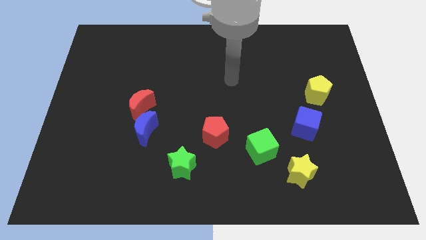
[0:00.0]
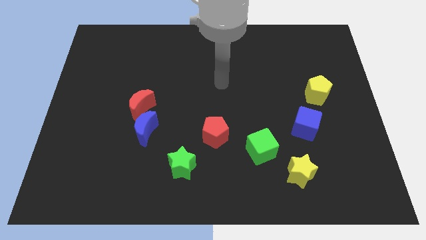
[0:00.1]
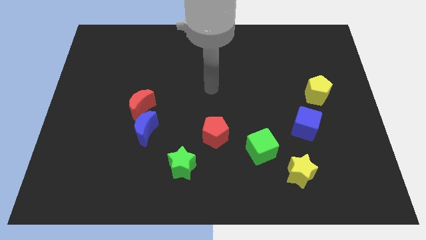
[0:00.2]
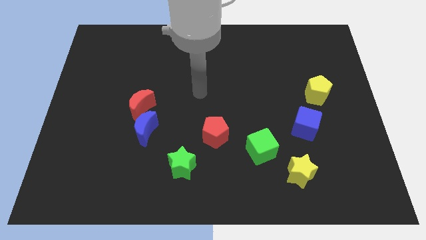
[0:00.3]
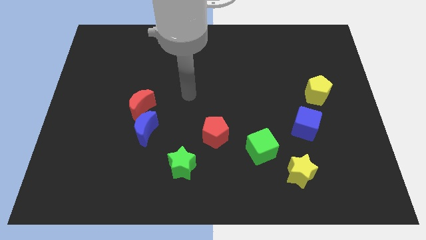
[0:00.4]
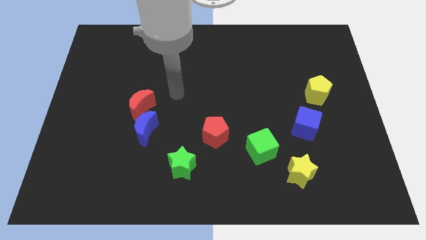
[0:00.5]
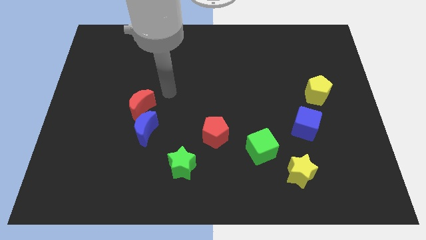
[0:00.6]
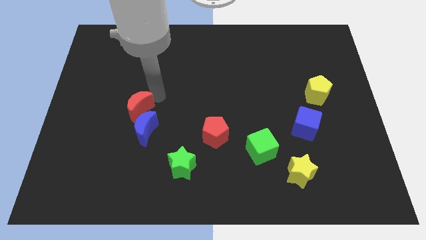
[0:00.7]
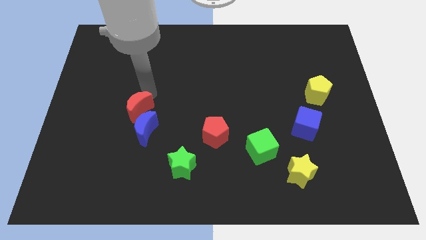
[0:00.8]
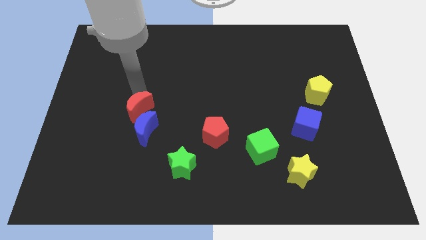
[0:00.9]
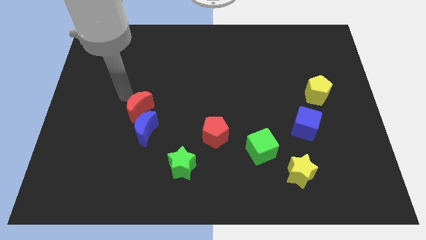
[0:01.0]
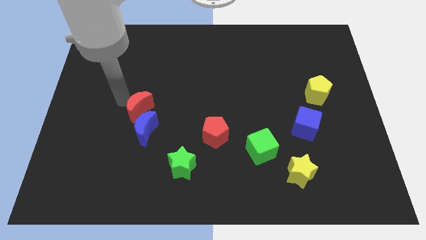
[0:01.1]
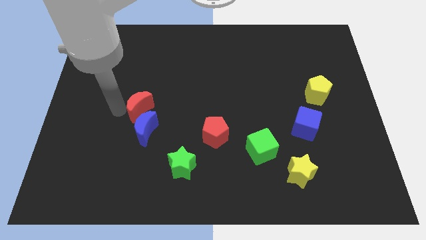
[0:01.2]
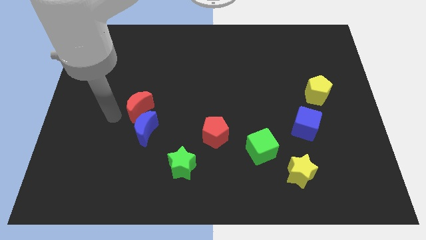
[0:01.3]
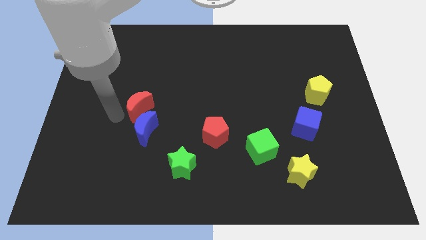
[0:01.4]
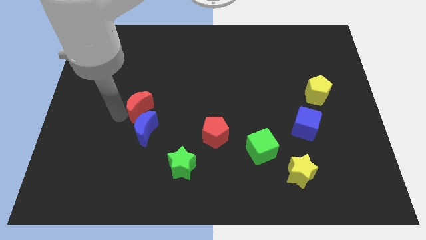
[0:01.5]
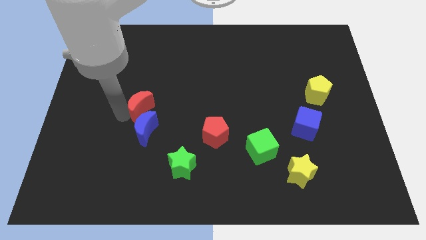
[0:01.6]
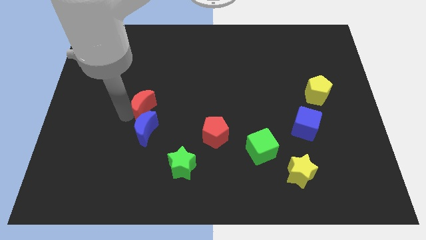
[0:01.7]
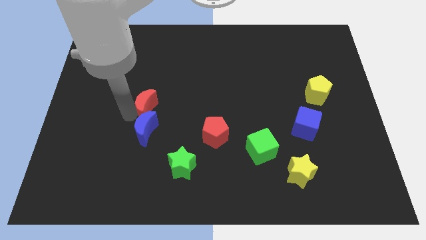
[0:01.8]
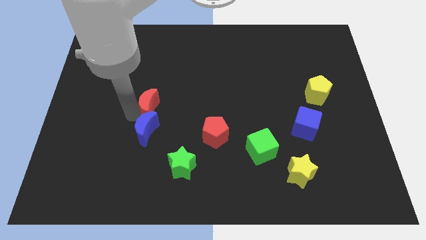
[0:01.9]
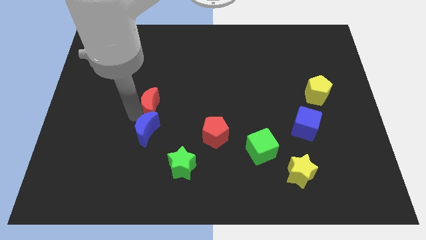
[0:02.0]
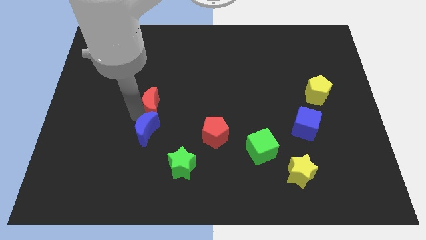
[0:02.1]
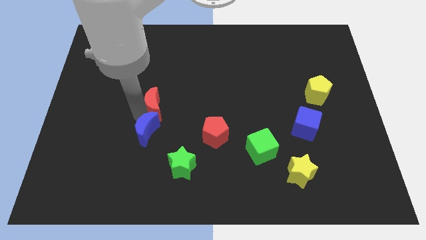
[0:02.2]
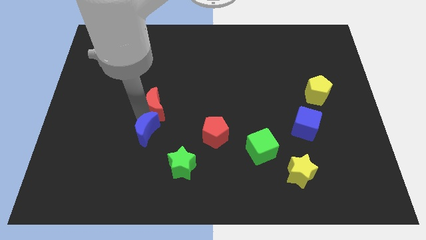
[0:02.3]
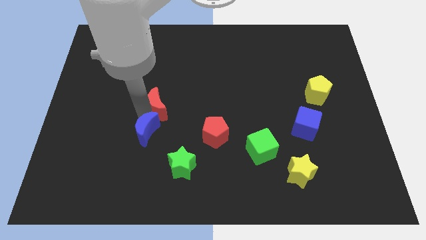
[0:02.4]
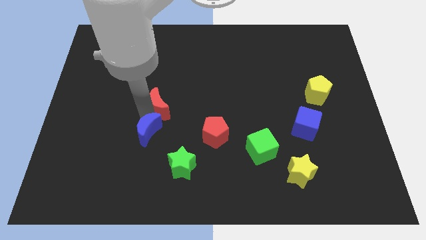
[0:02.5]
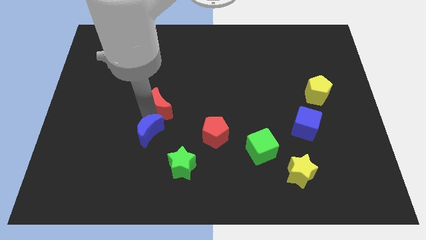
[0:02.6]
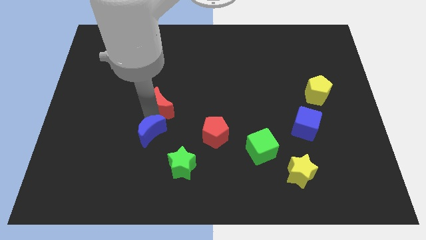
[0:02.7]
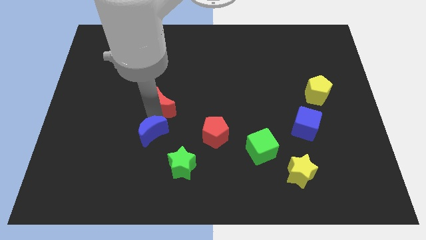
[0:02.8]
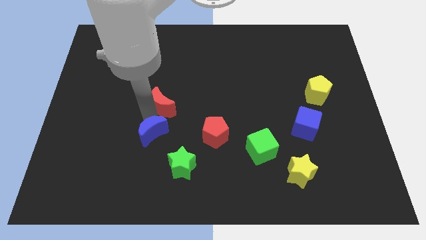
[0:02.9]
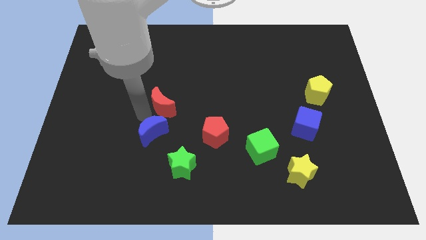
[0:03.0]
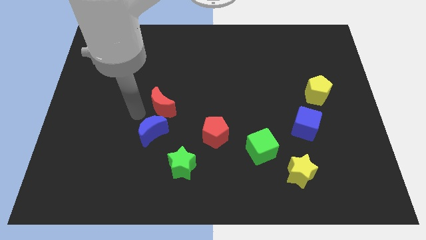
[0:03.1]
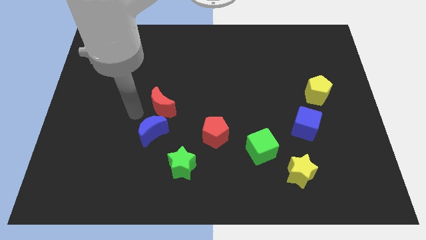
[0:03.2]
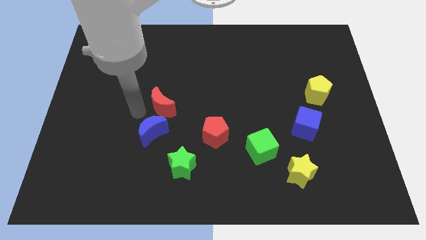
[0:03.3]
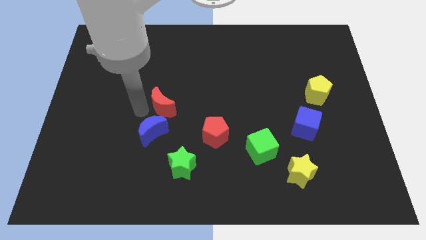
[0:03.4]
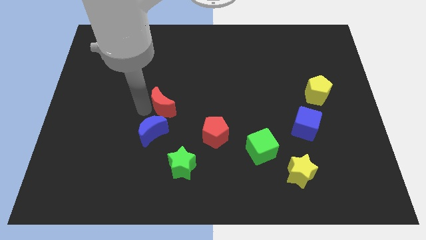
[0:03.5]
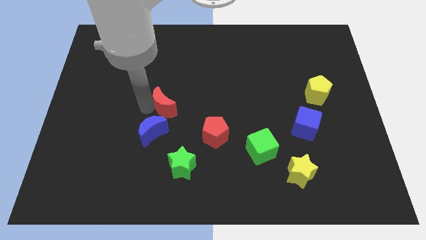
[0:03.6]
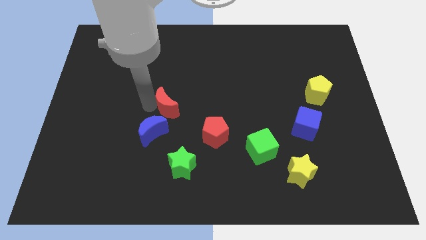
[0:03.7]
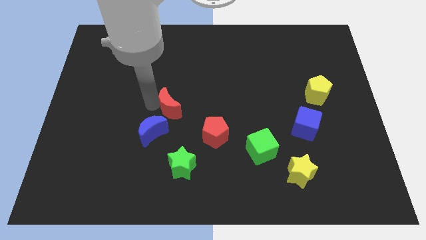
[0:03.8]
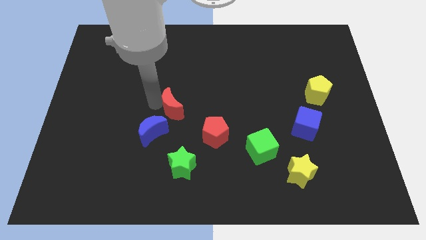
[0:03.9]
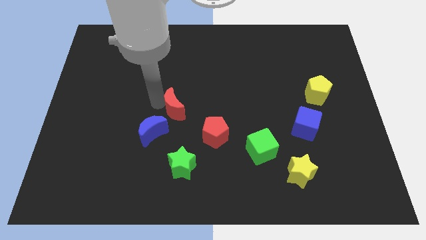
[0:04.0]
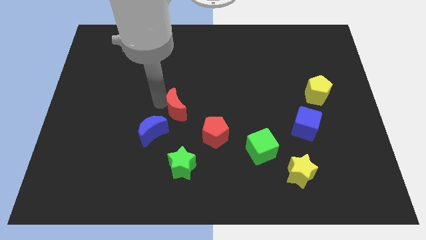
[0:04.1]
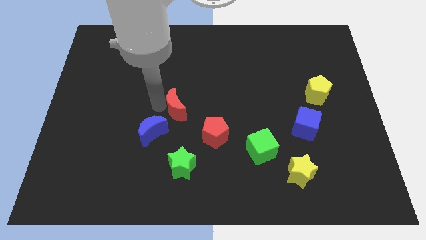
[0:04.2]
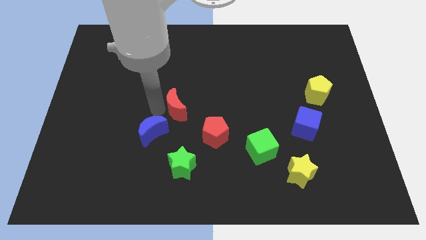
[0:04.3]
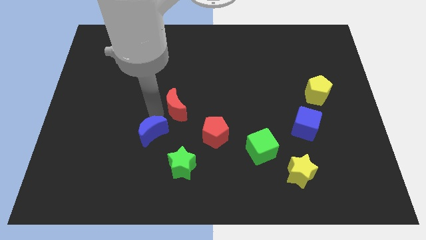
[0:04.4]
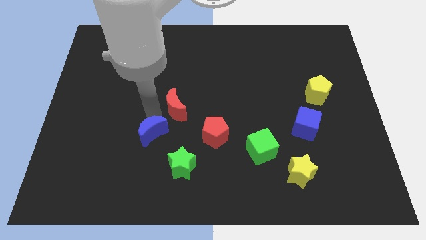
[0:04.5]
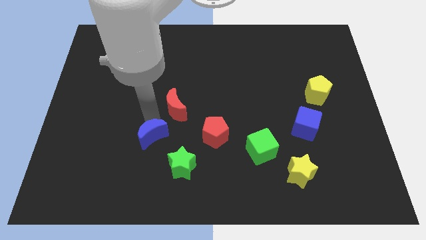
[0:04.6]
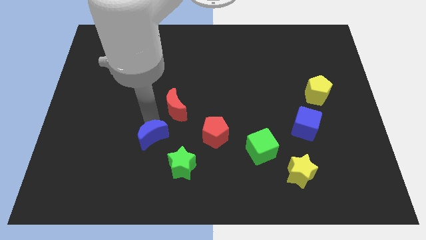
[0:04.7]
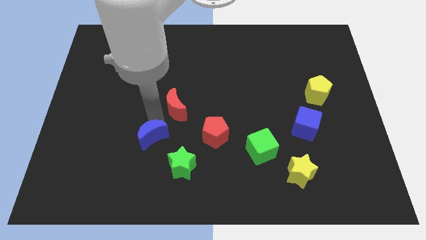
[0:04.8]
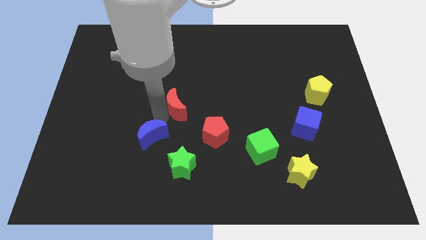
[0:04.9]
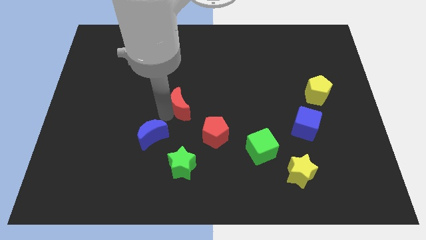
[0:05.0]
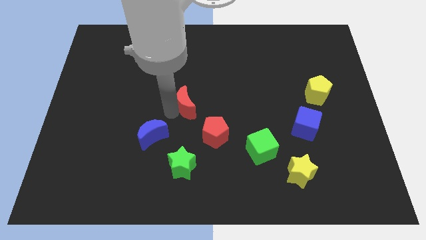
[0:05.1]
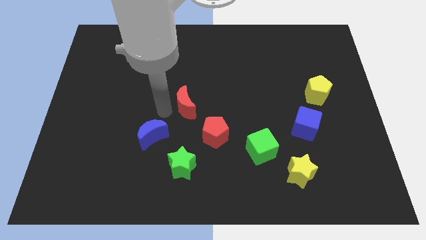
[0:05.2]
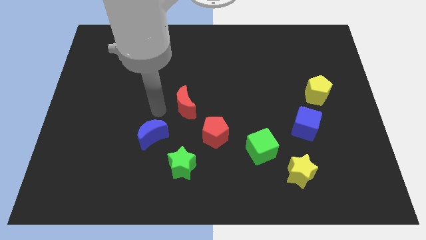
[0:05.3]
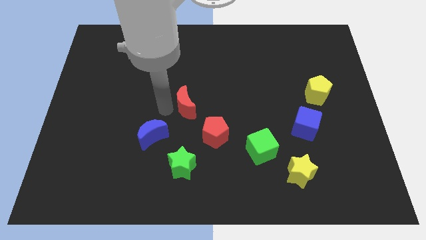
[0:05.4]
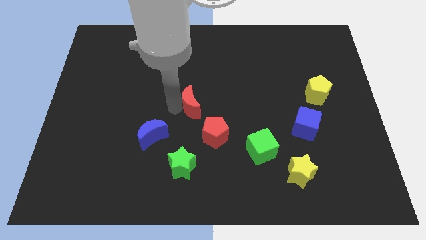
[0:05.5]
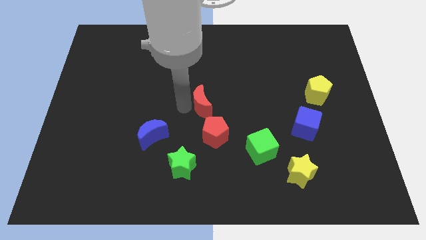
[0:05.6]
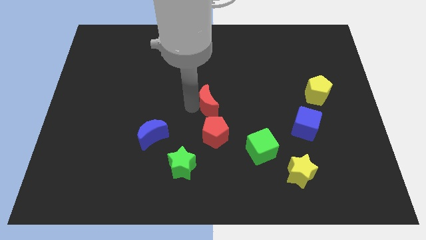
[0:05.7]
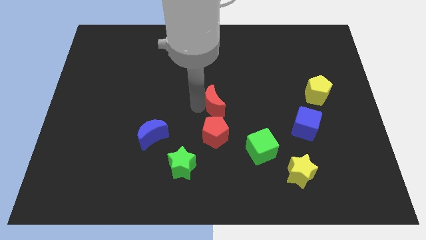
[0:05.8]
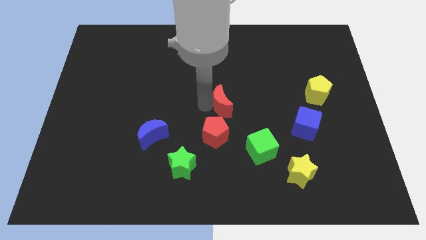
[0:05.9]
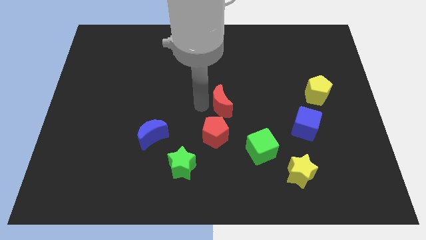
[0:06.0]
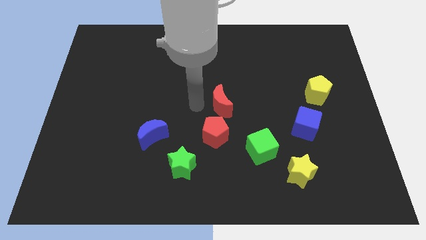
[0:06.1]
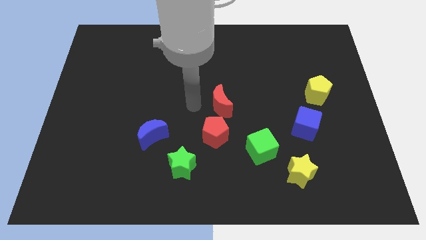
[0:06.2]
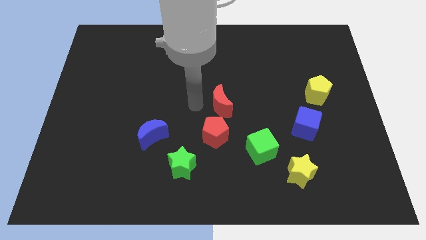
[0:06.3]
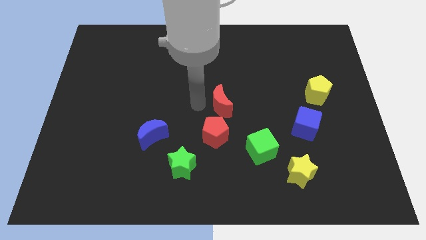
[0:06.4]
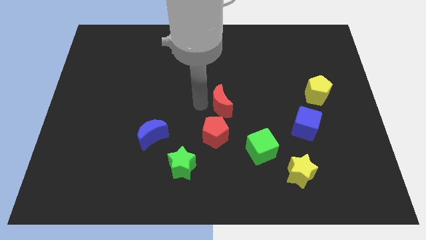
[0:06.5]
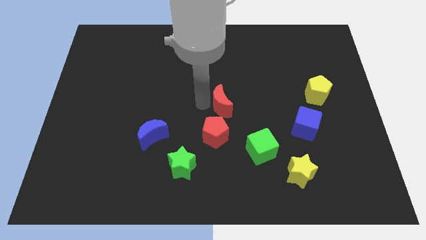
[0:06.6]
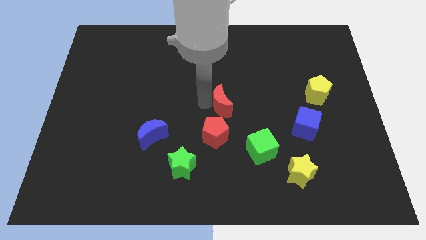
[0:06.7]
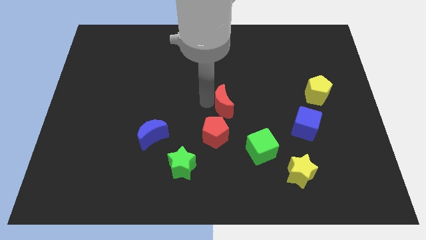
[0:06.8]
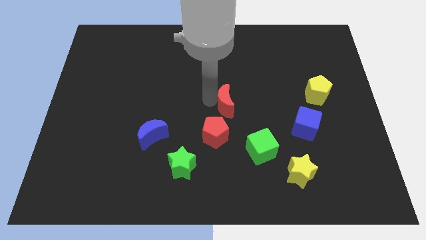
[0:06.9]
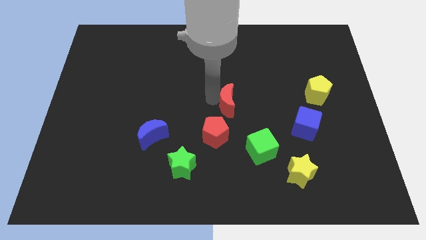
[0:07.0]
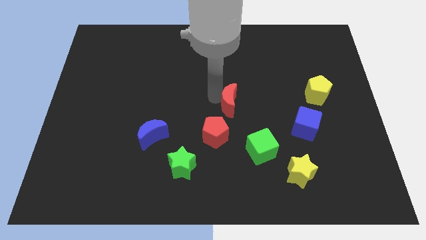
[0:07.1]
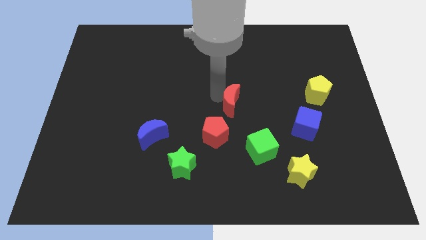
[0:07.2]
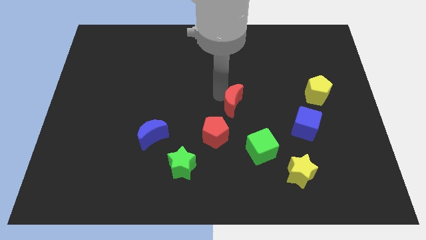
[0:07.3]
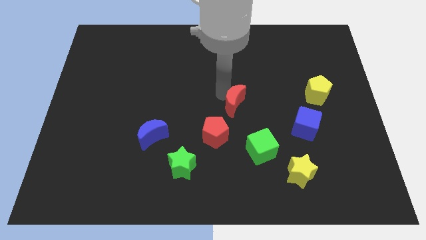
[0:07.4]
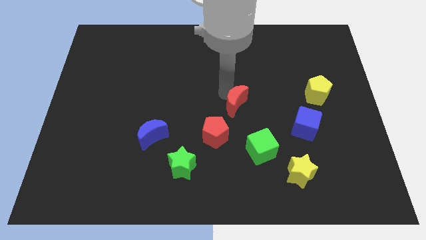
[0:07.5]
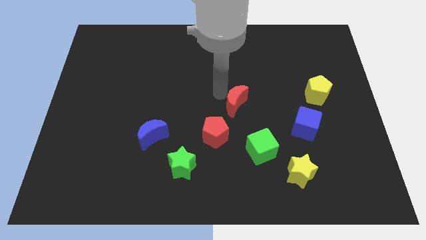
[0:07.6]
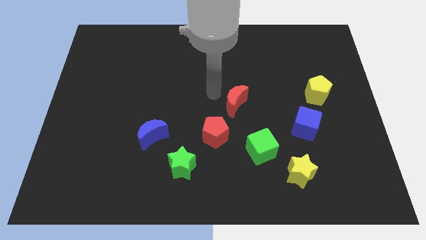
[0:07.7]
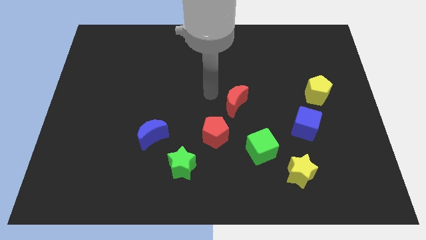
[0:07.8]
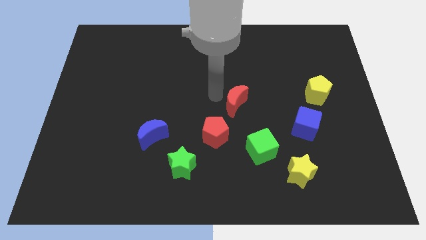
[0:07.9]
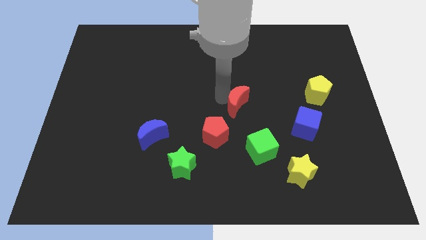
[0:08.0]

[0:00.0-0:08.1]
push the red moon to the top side of the green cube
